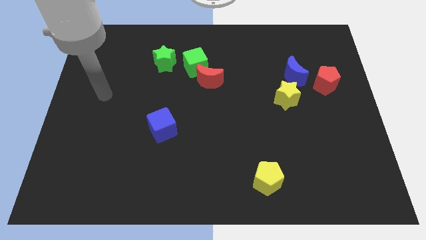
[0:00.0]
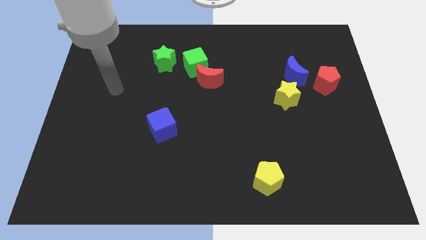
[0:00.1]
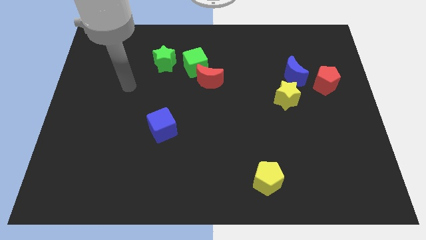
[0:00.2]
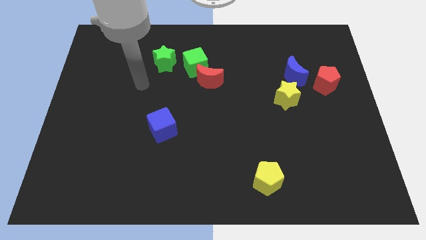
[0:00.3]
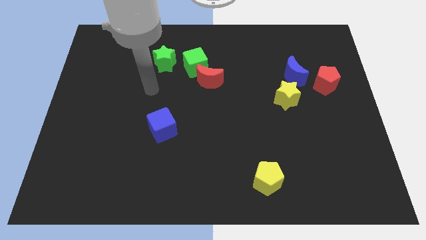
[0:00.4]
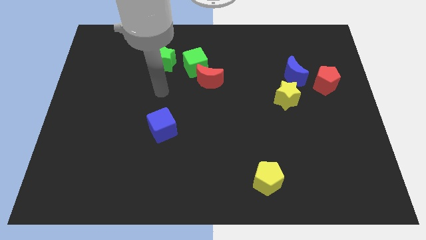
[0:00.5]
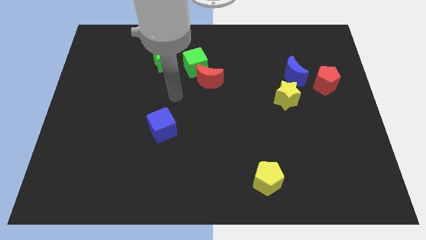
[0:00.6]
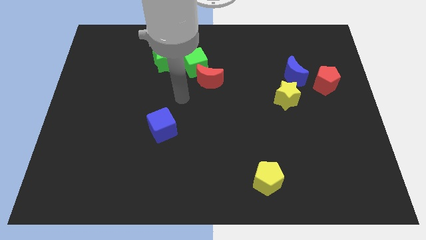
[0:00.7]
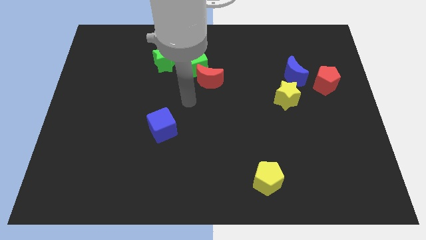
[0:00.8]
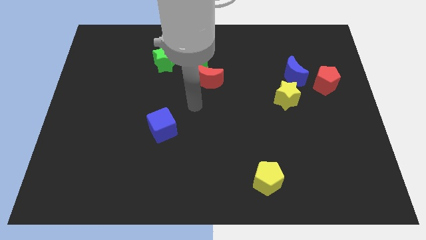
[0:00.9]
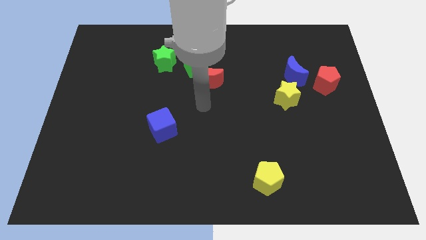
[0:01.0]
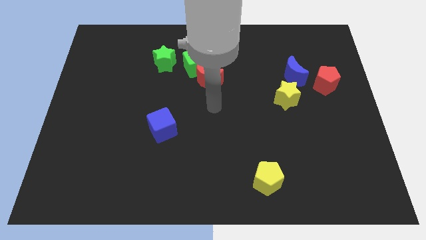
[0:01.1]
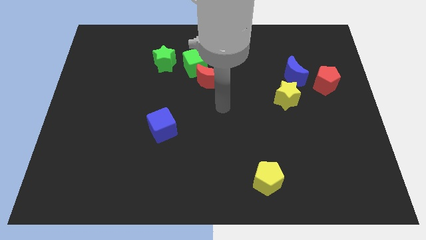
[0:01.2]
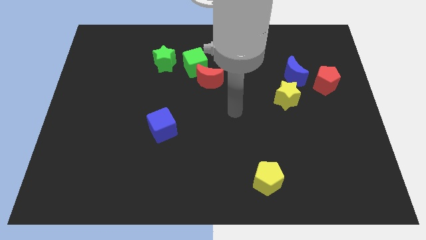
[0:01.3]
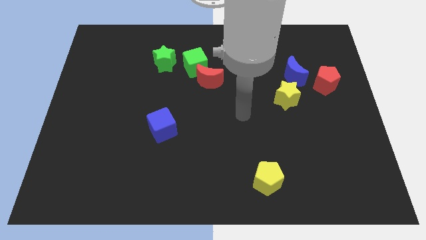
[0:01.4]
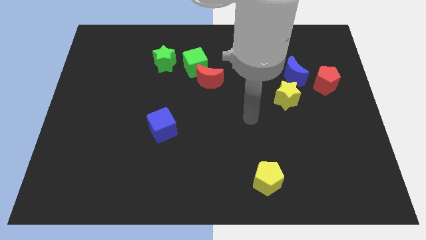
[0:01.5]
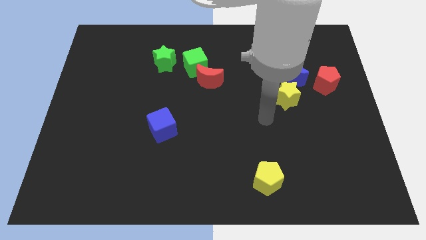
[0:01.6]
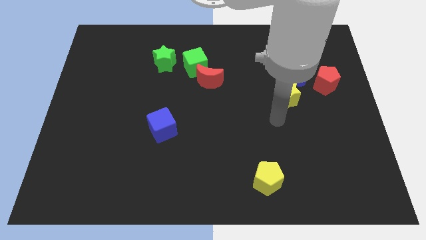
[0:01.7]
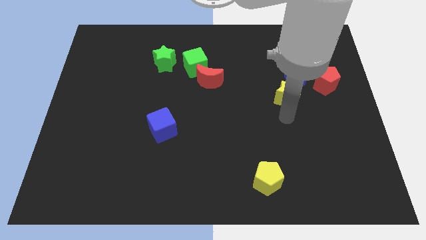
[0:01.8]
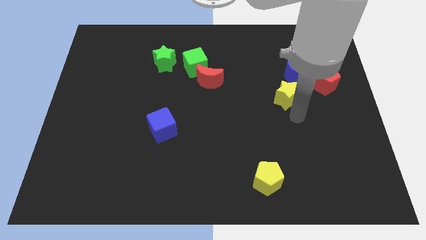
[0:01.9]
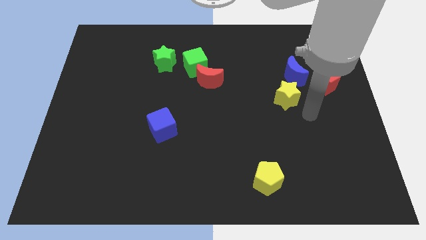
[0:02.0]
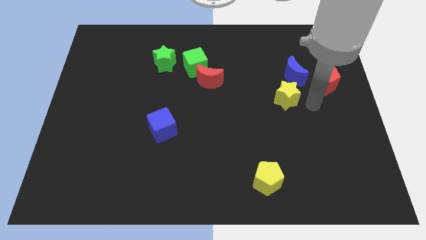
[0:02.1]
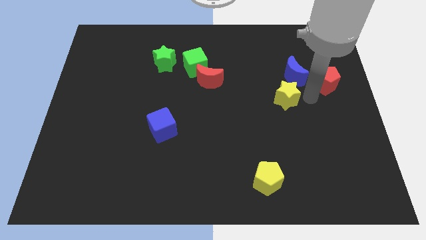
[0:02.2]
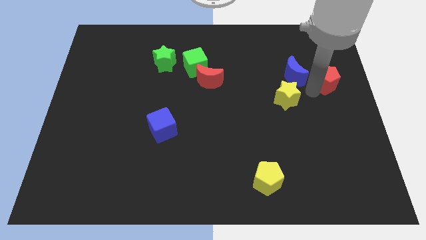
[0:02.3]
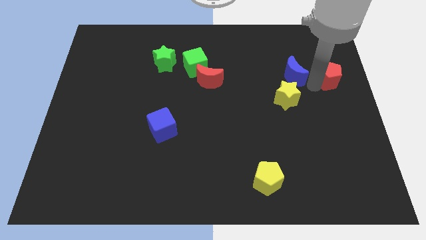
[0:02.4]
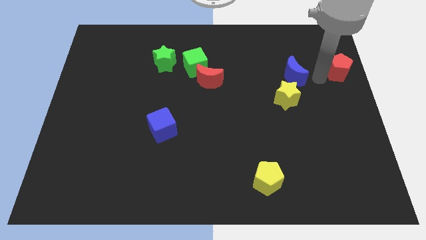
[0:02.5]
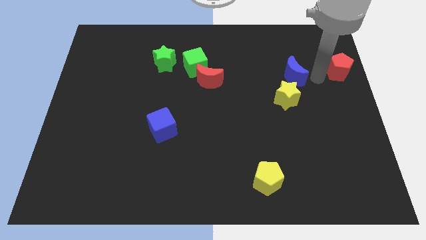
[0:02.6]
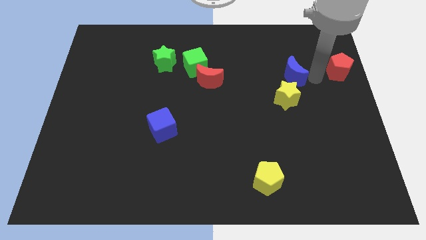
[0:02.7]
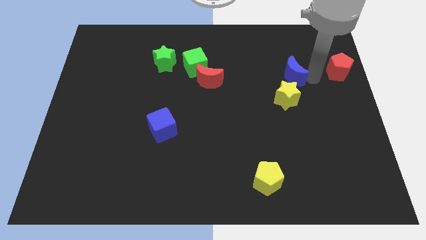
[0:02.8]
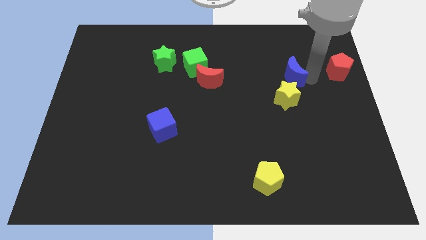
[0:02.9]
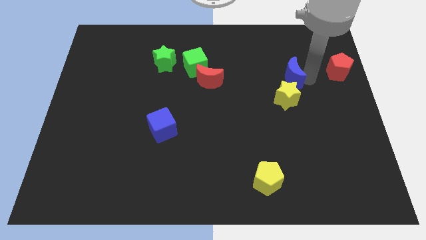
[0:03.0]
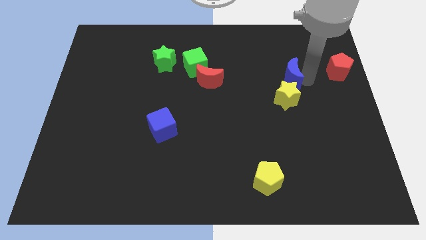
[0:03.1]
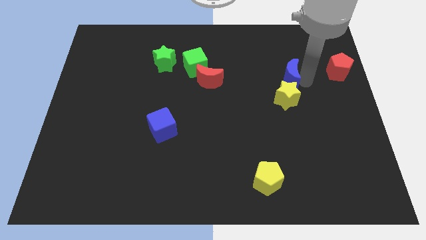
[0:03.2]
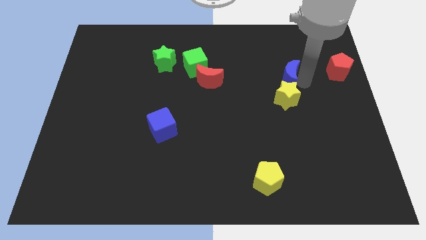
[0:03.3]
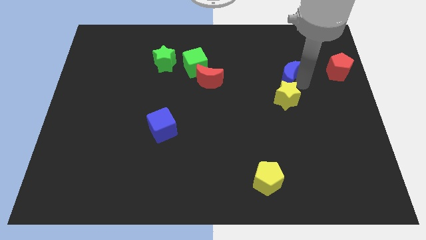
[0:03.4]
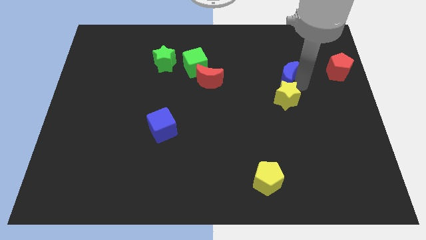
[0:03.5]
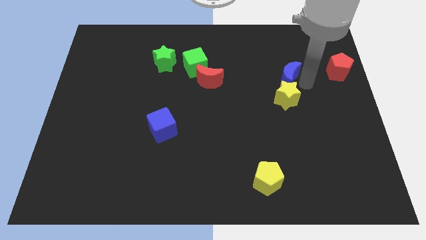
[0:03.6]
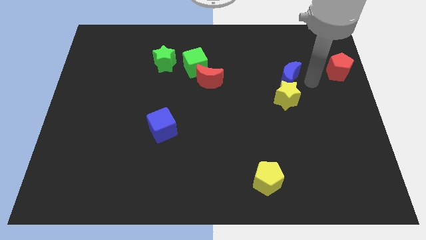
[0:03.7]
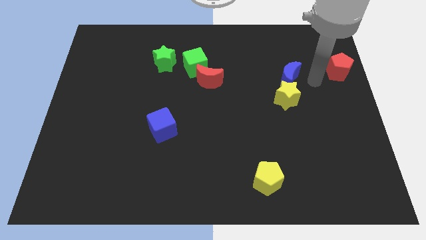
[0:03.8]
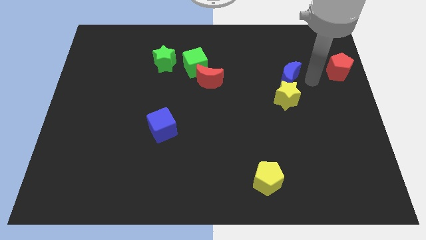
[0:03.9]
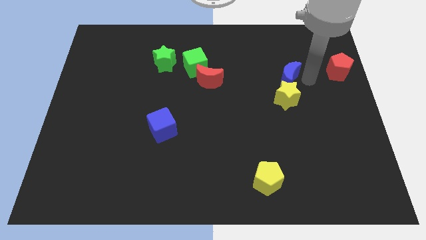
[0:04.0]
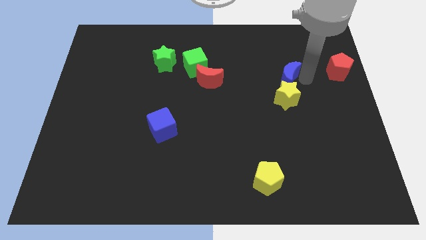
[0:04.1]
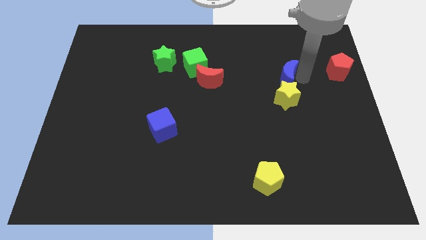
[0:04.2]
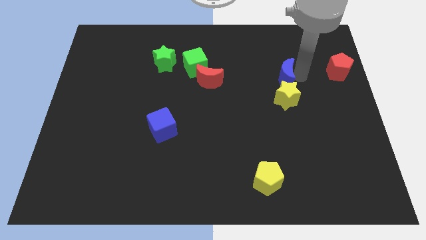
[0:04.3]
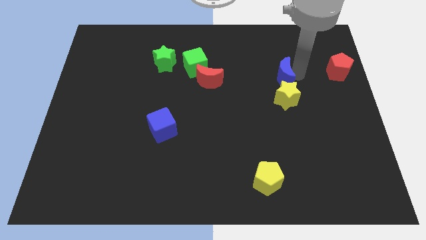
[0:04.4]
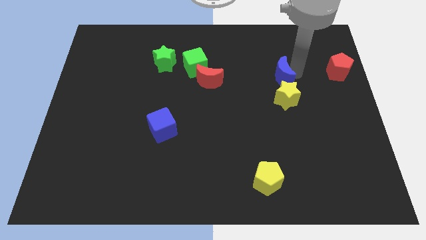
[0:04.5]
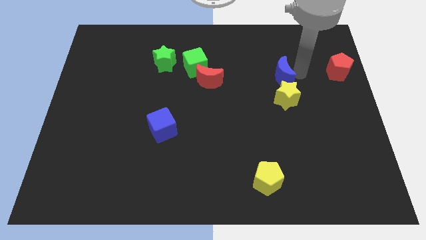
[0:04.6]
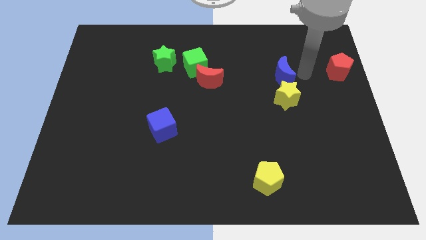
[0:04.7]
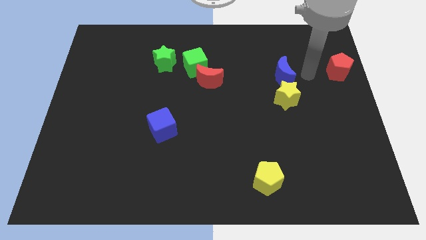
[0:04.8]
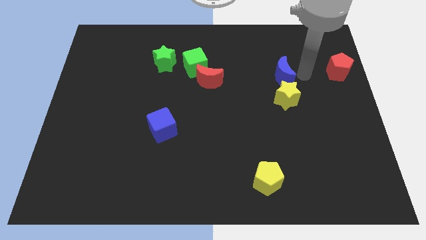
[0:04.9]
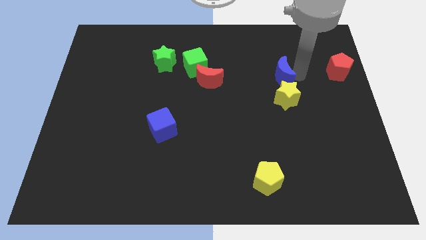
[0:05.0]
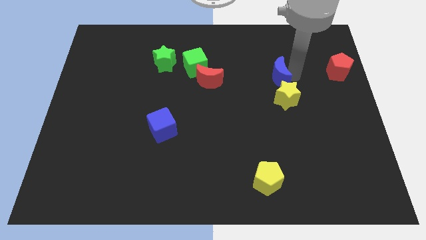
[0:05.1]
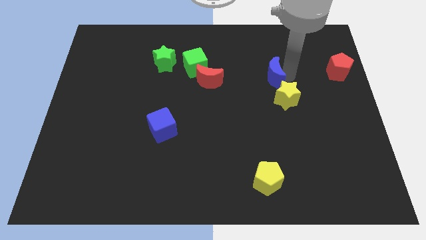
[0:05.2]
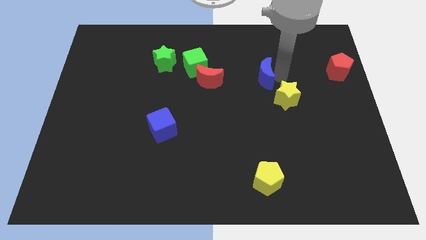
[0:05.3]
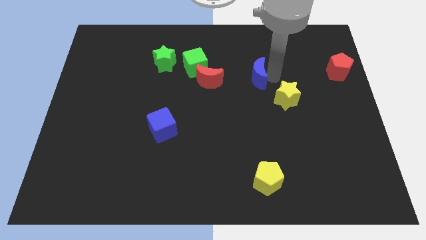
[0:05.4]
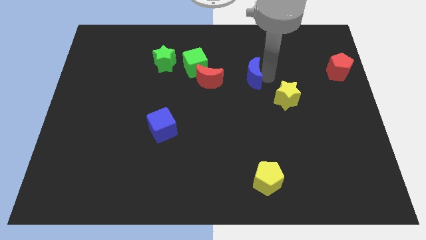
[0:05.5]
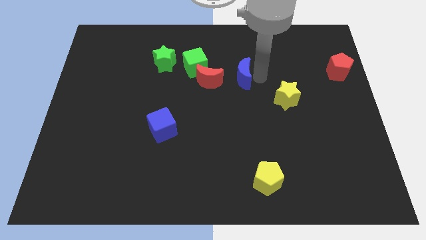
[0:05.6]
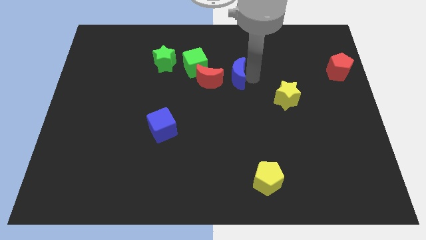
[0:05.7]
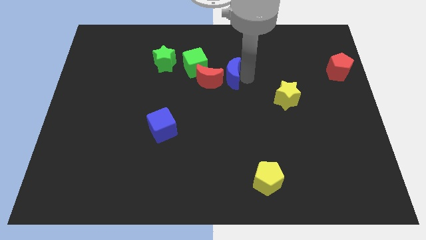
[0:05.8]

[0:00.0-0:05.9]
put the blue moon next to the red moon

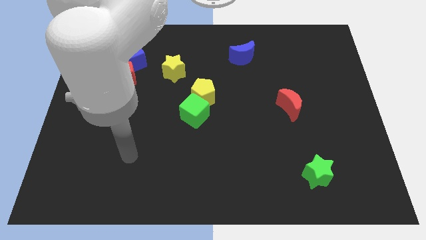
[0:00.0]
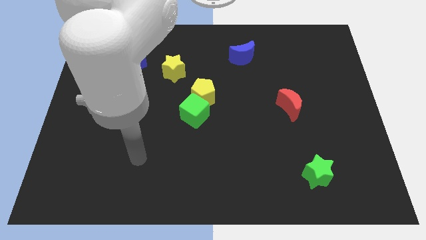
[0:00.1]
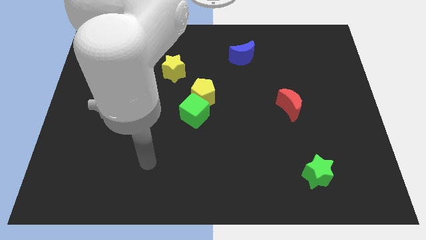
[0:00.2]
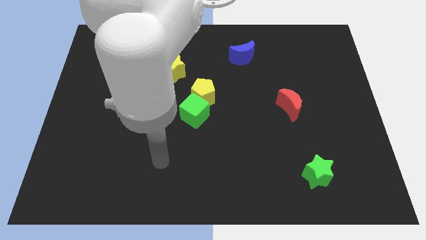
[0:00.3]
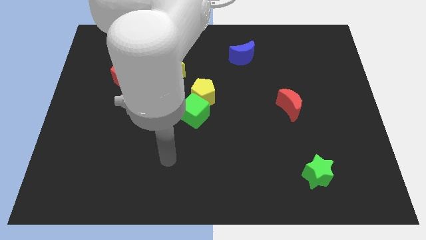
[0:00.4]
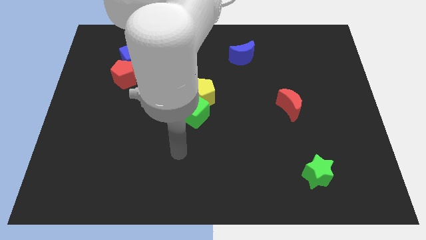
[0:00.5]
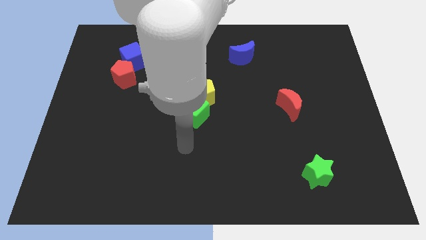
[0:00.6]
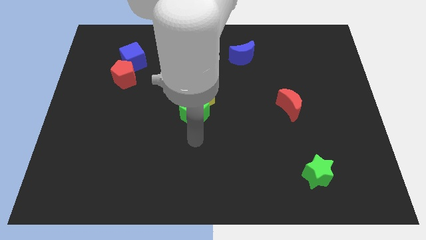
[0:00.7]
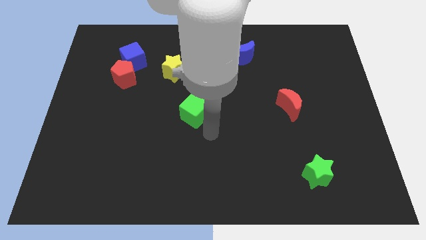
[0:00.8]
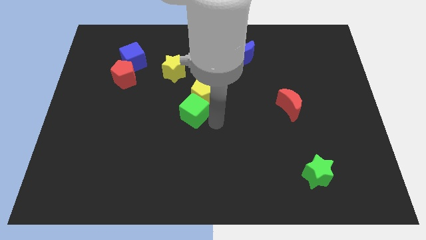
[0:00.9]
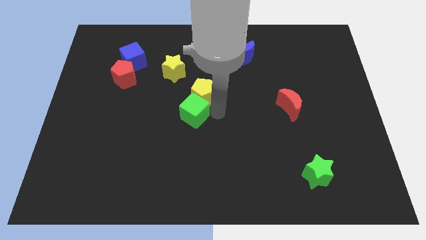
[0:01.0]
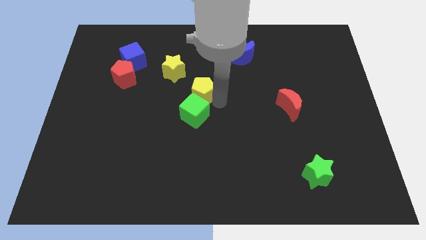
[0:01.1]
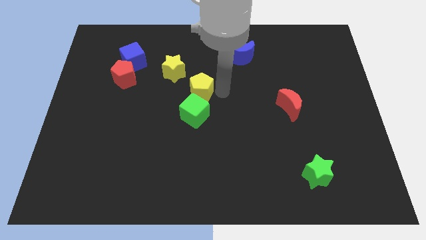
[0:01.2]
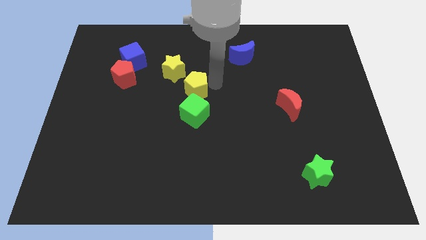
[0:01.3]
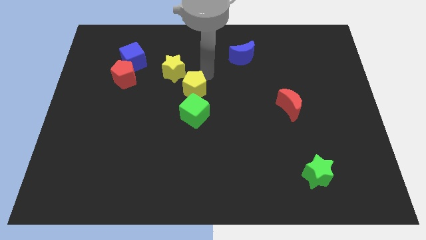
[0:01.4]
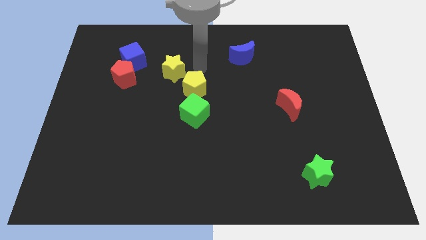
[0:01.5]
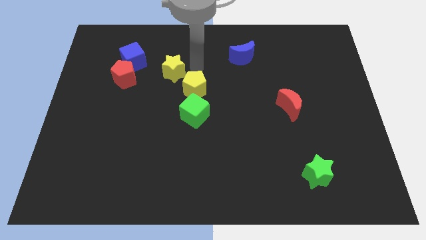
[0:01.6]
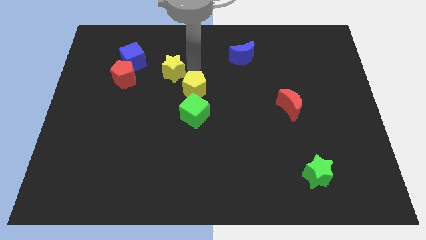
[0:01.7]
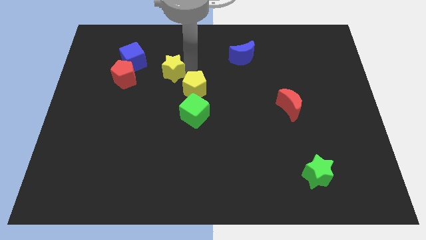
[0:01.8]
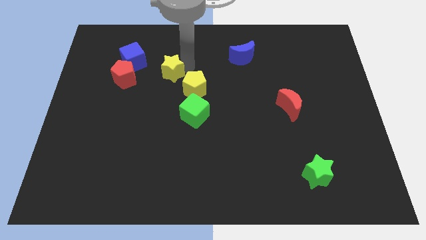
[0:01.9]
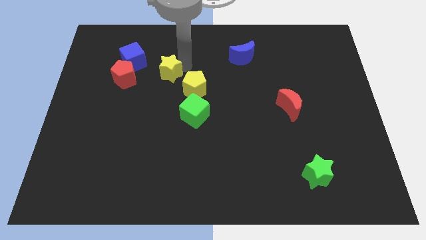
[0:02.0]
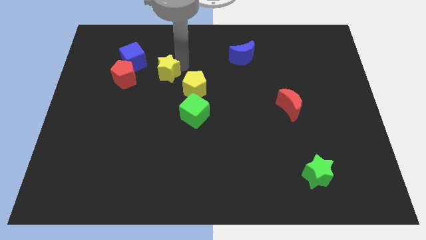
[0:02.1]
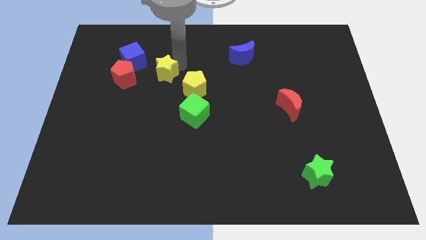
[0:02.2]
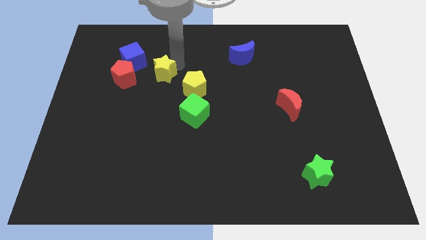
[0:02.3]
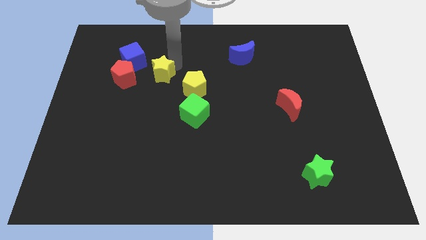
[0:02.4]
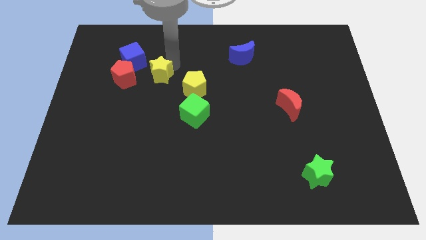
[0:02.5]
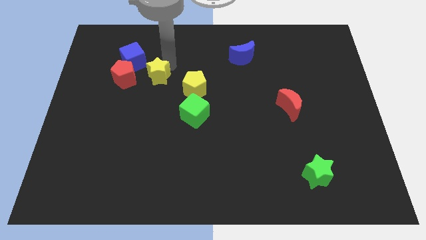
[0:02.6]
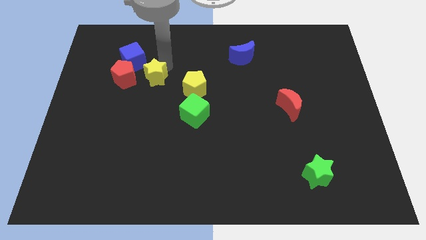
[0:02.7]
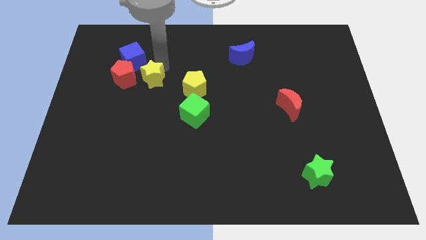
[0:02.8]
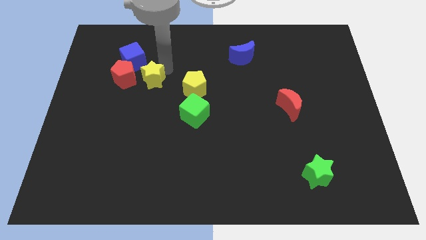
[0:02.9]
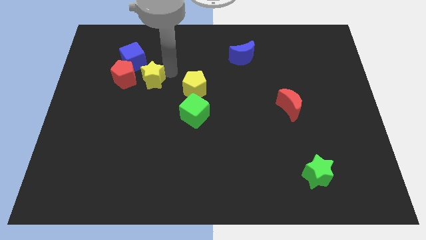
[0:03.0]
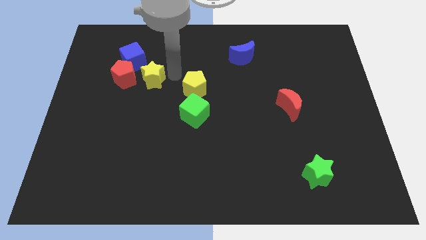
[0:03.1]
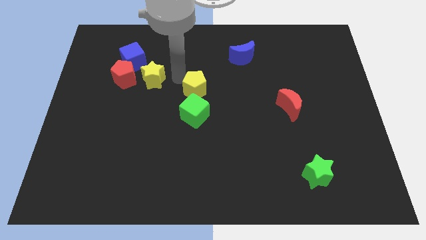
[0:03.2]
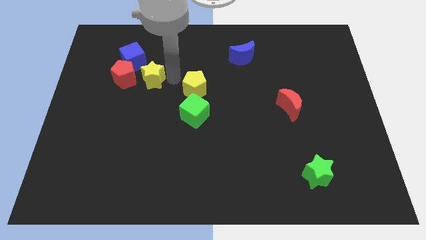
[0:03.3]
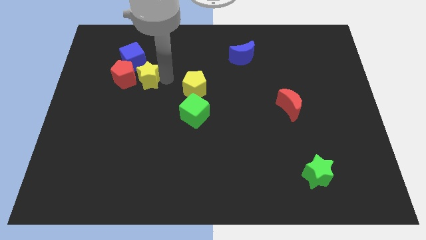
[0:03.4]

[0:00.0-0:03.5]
put the yellow star close to the red pentagon
